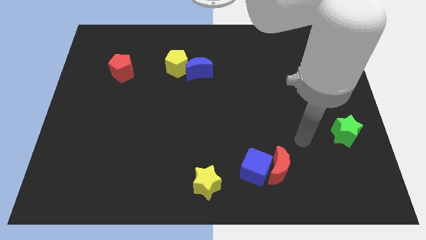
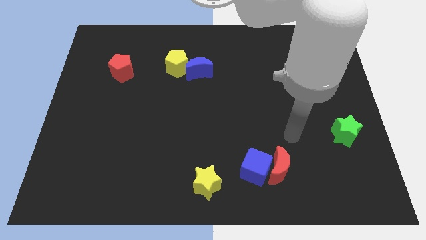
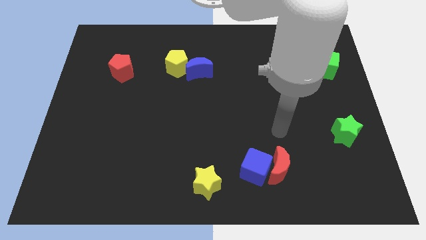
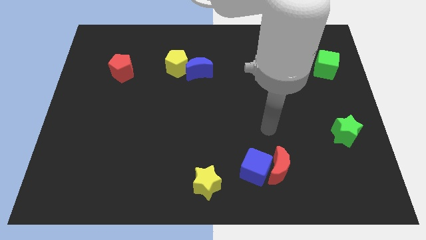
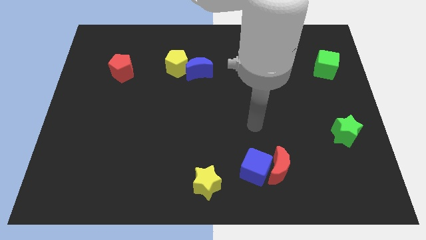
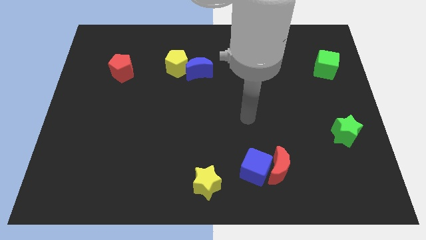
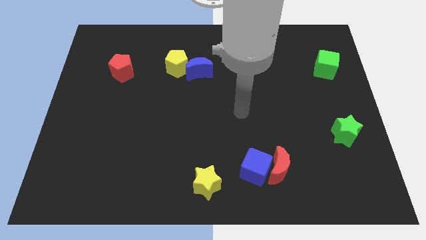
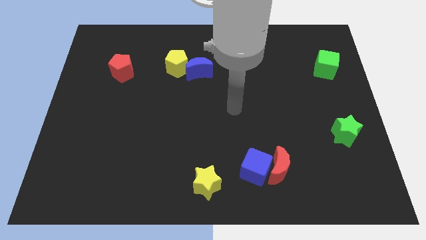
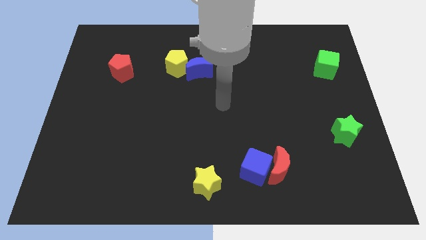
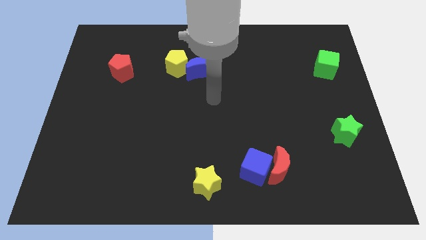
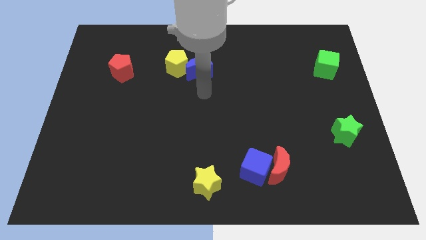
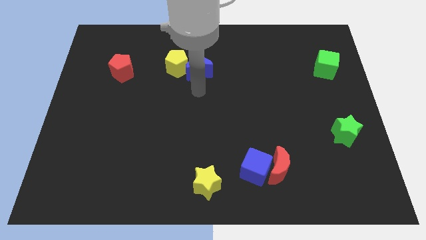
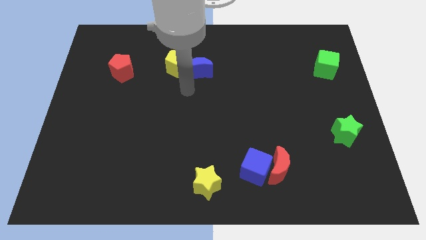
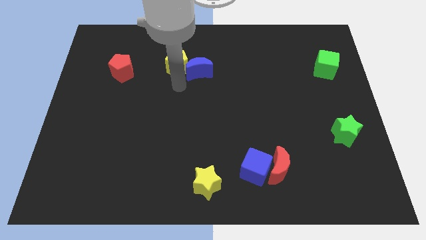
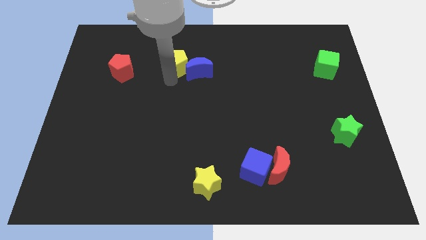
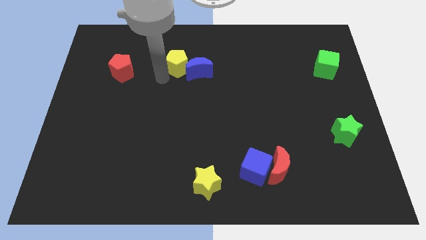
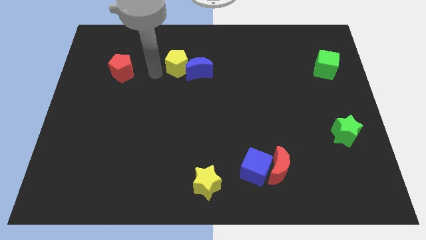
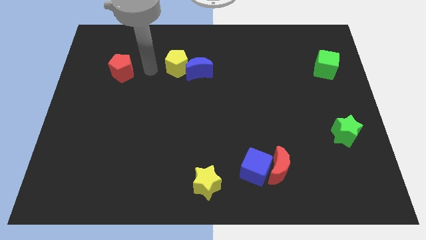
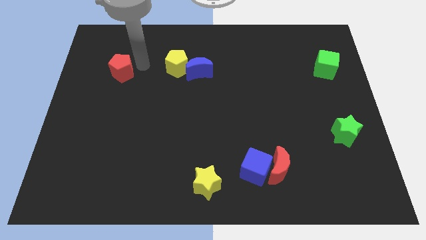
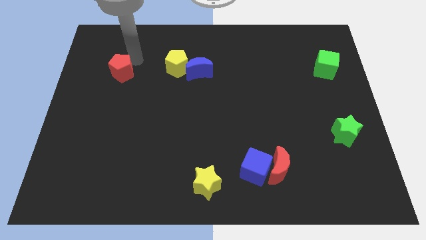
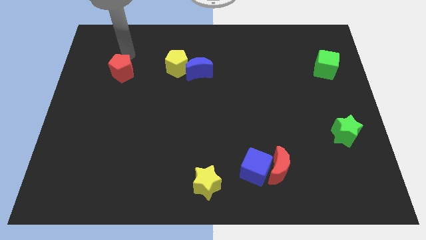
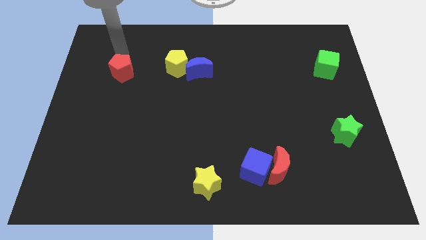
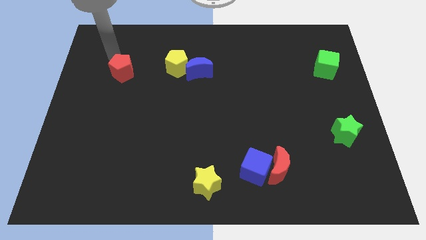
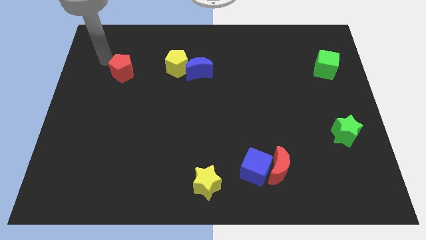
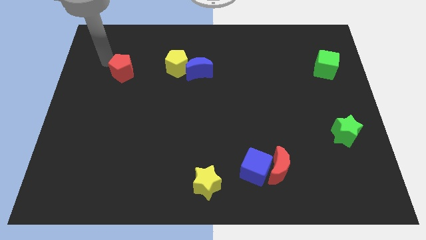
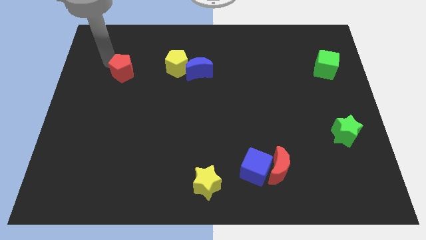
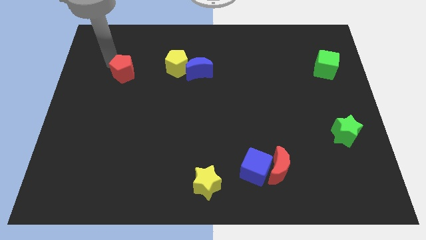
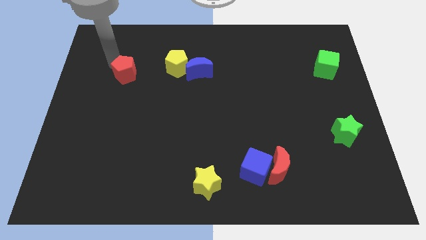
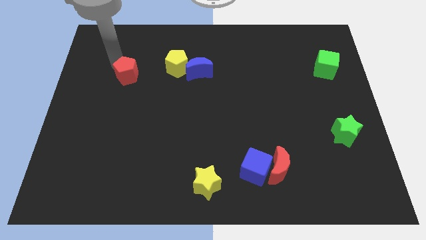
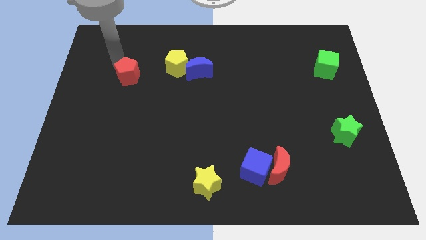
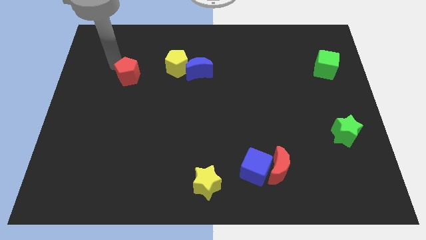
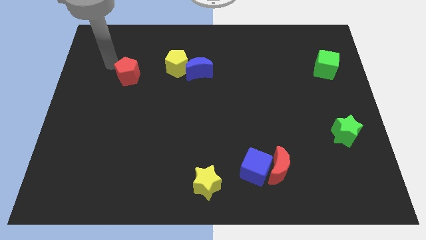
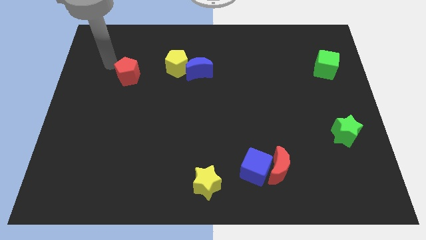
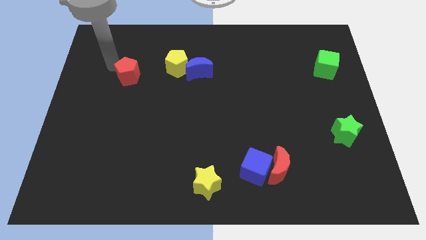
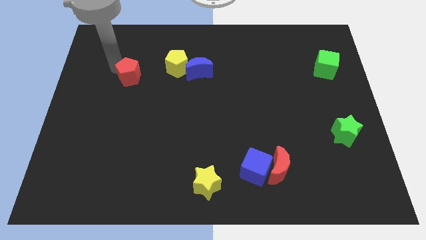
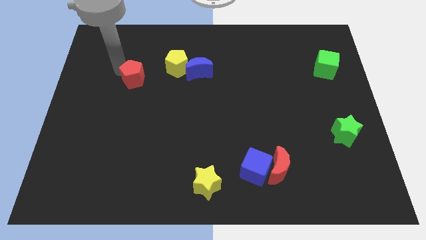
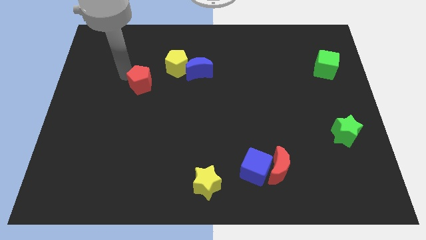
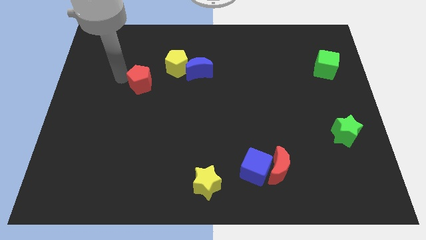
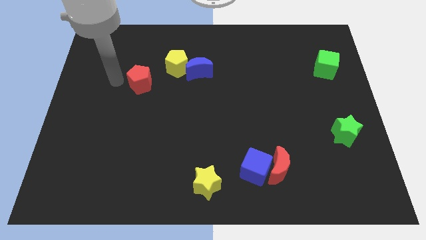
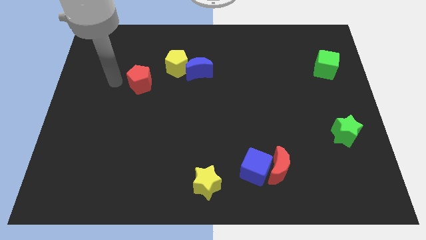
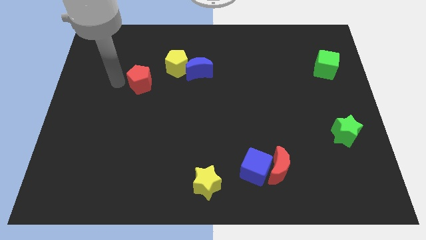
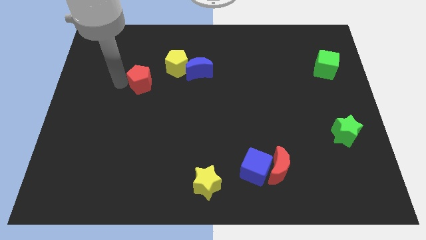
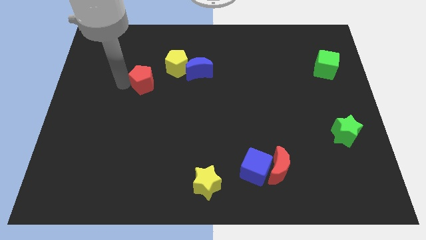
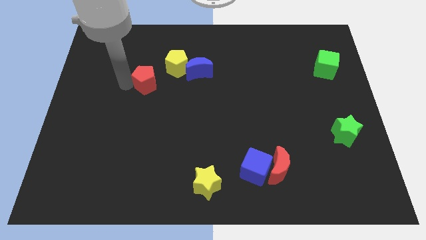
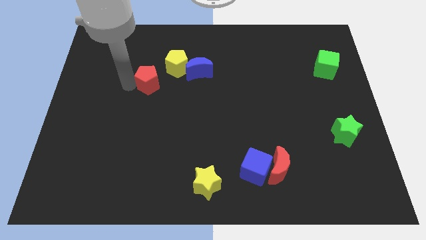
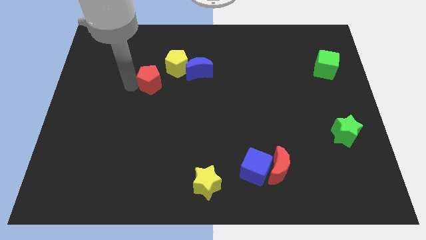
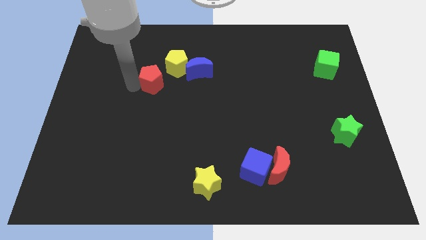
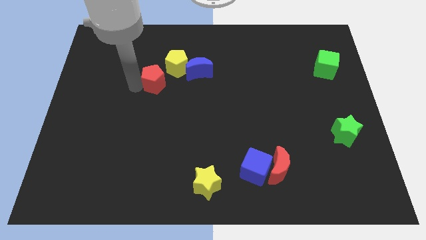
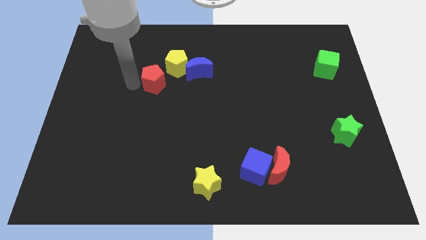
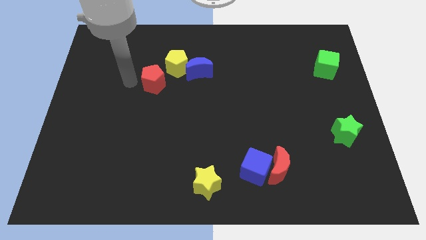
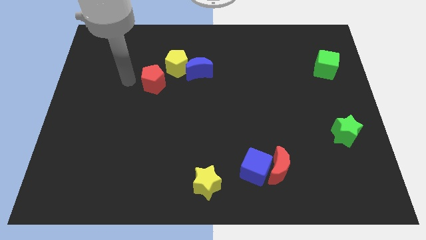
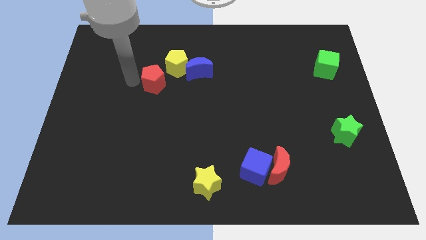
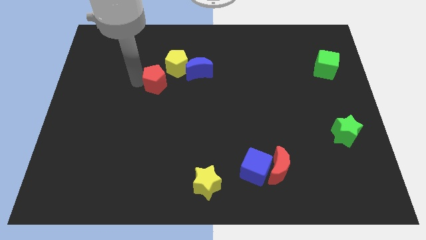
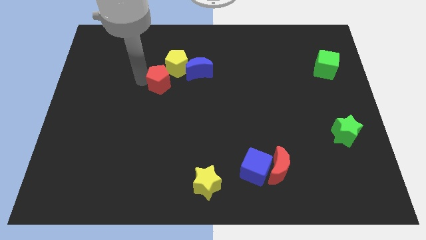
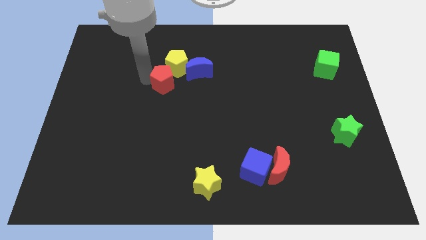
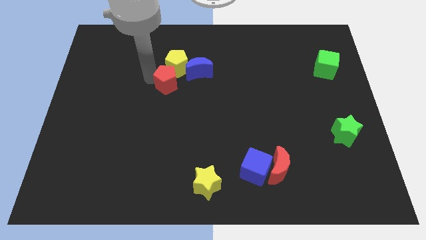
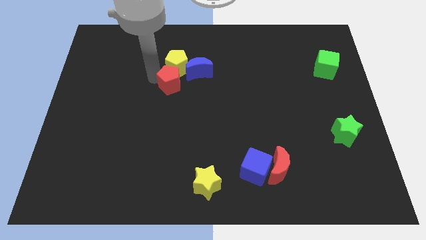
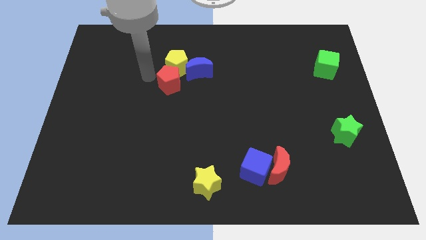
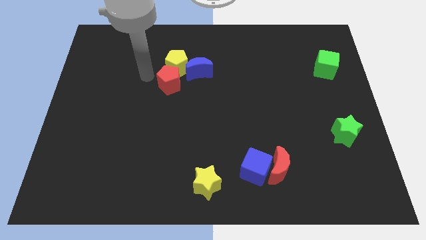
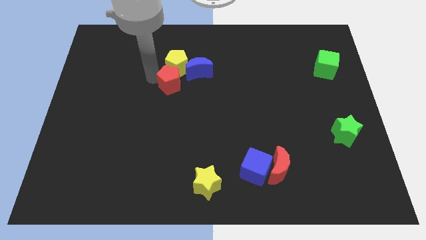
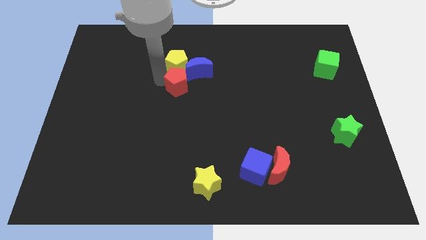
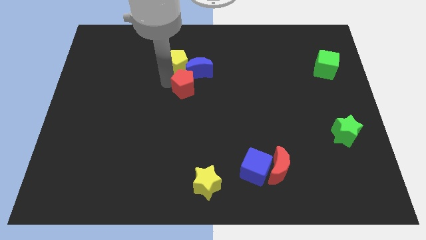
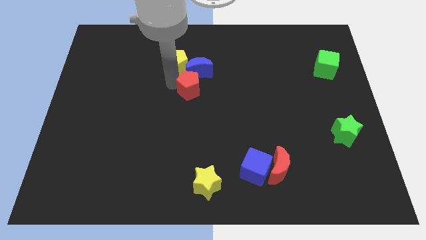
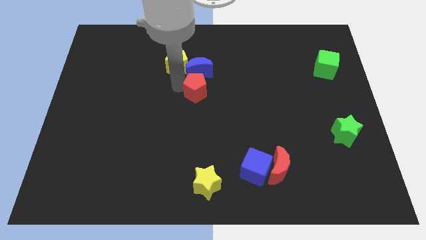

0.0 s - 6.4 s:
move the red pentagon diagonally down and to the right of the blue moon

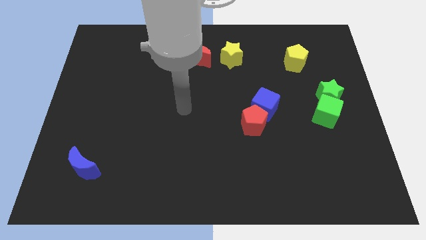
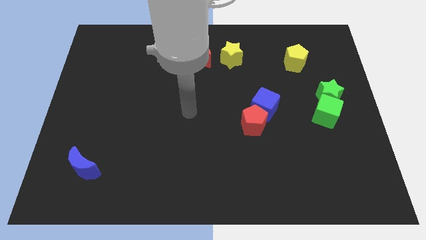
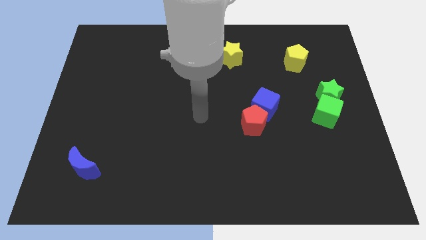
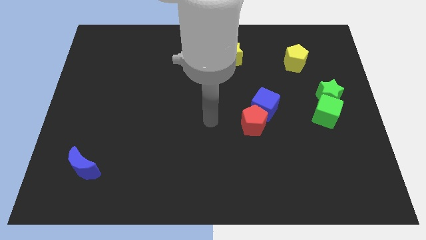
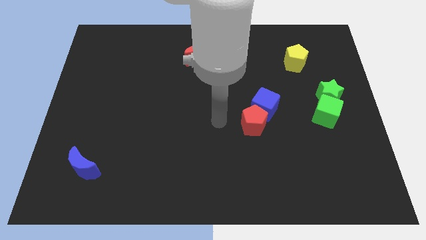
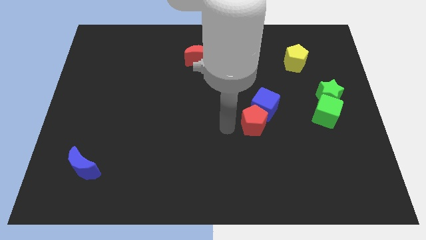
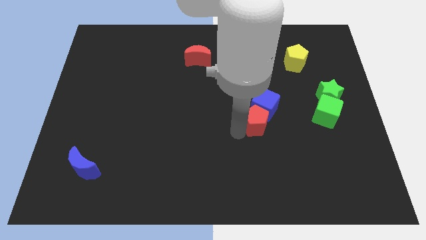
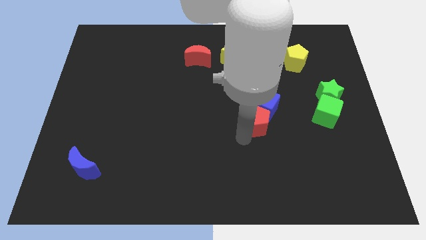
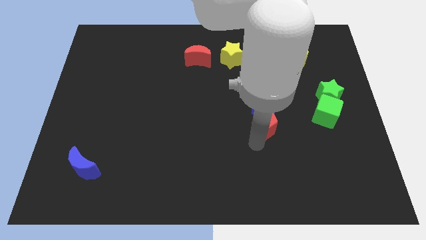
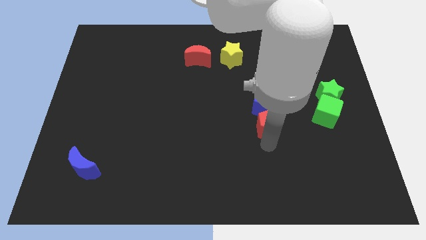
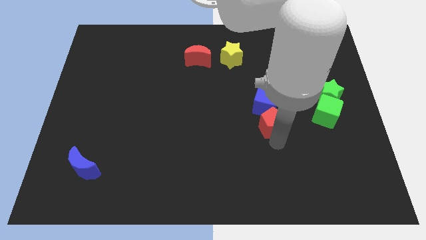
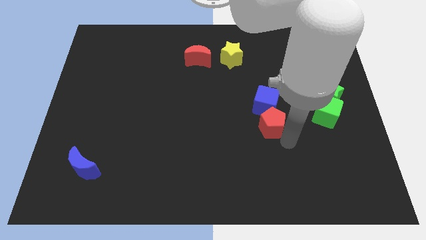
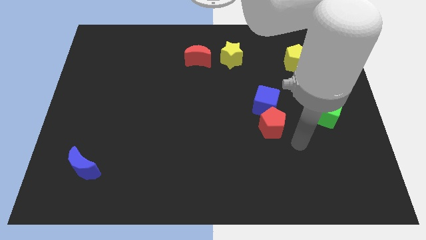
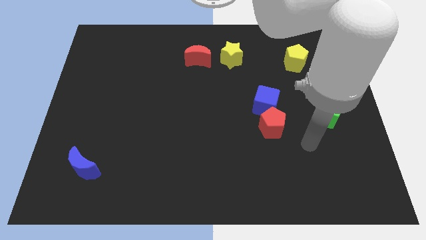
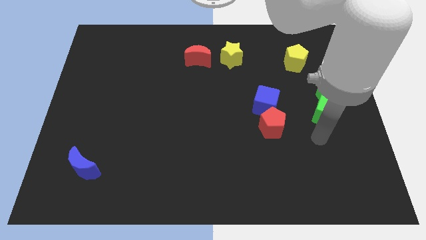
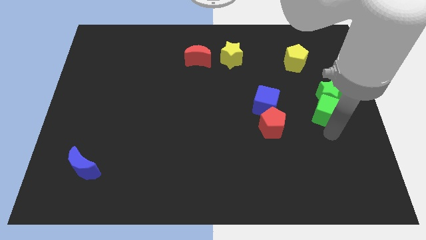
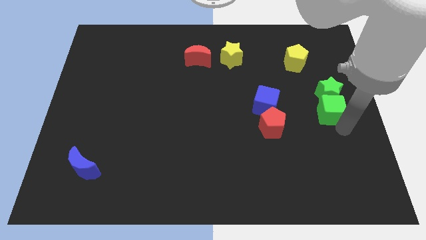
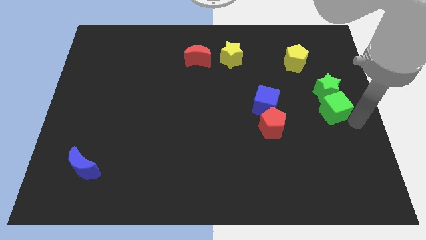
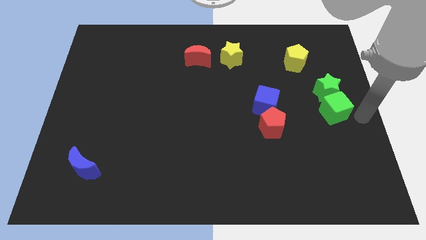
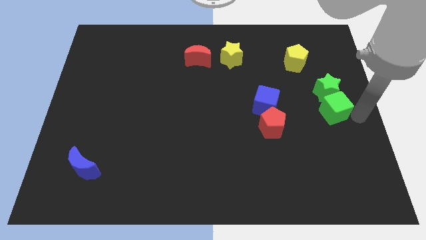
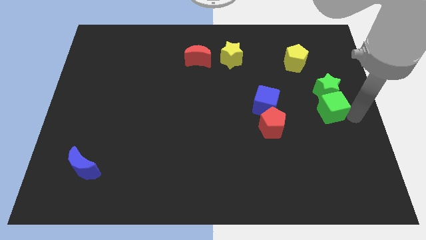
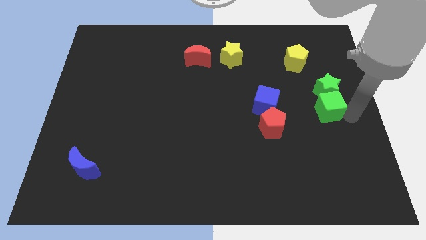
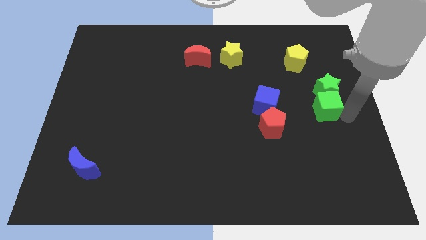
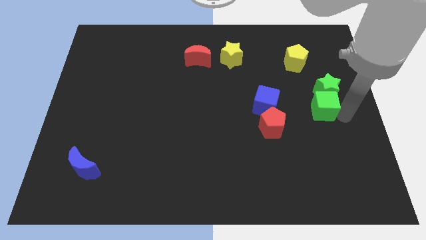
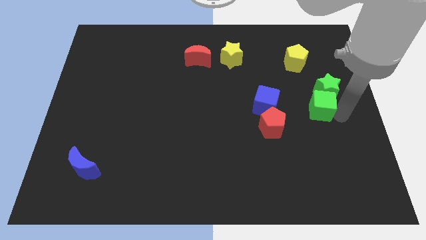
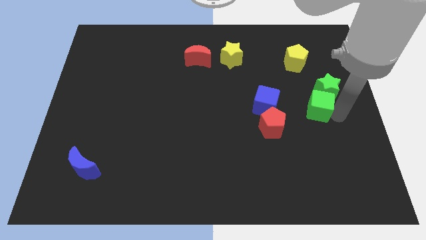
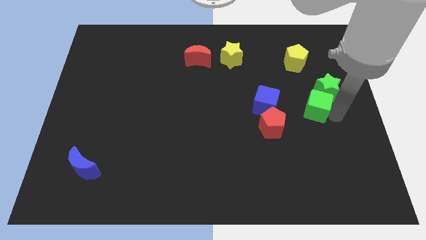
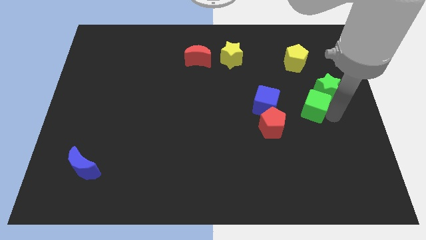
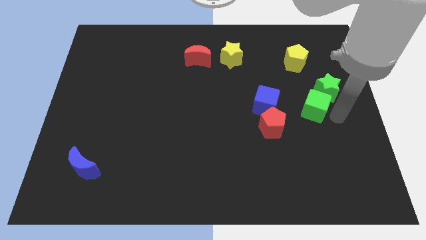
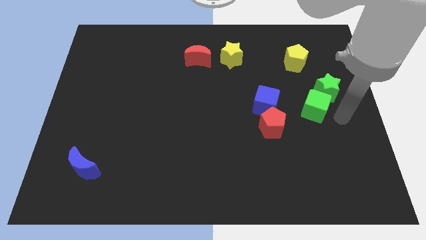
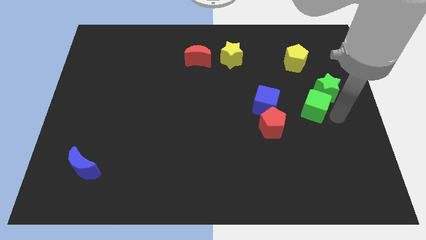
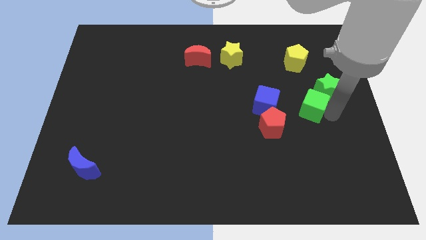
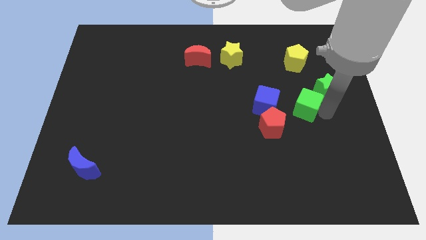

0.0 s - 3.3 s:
slide the green cube to the left side of the green star
